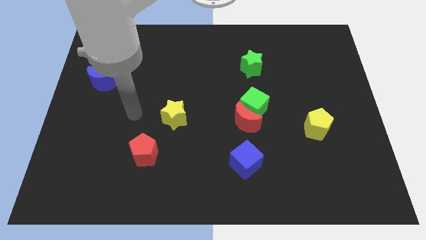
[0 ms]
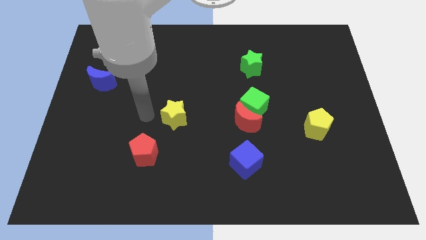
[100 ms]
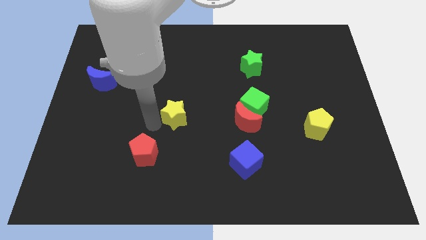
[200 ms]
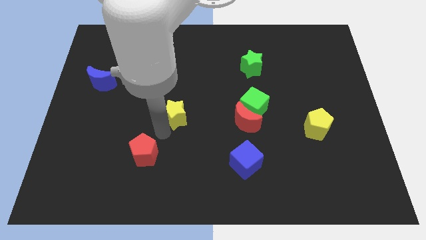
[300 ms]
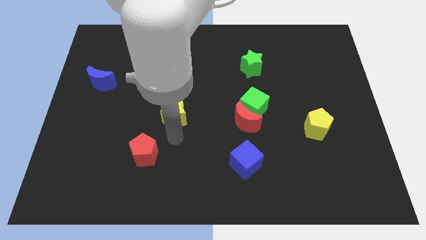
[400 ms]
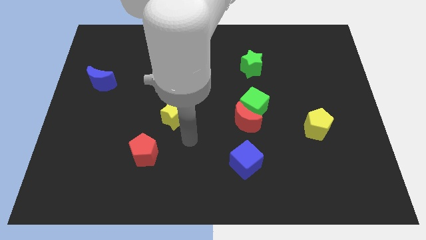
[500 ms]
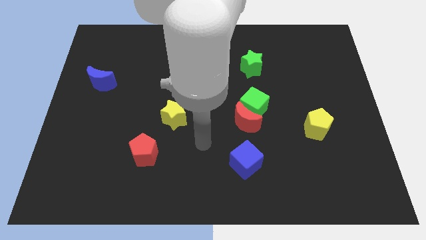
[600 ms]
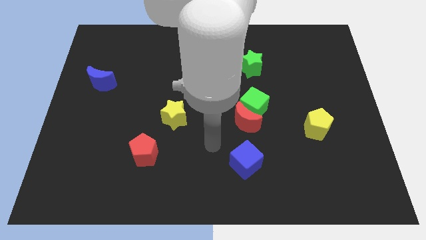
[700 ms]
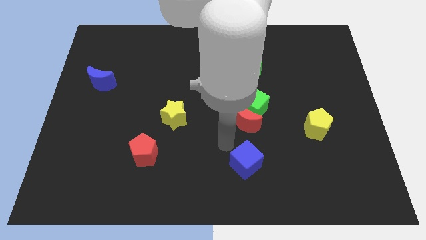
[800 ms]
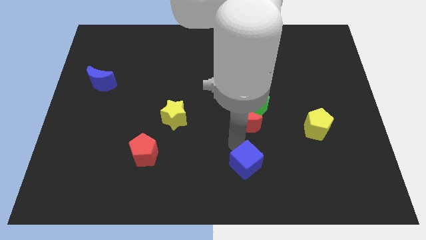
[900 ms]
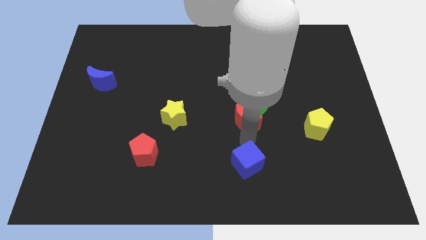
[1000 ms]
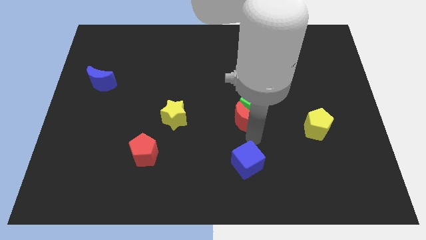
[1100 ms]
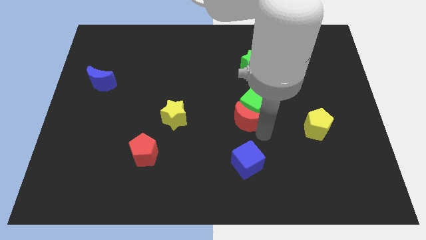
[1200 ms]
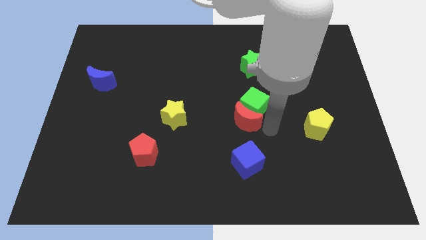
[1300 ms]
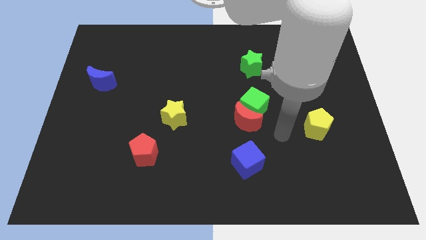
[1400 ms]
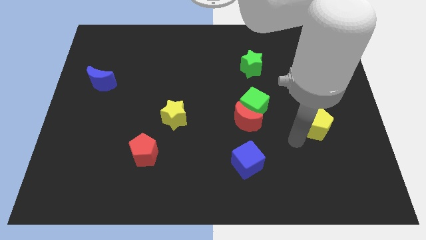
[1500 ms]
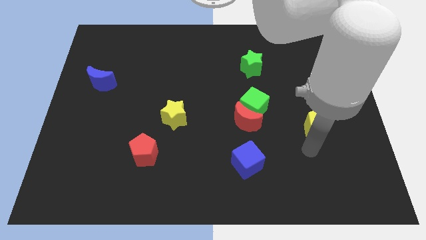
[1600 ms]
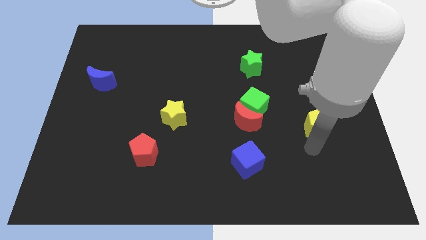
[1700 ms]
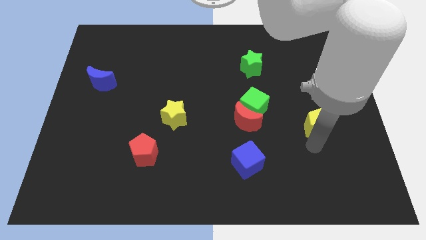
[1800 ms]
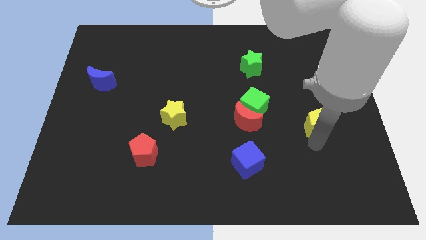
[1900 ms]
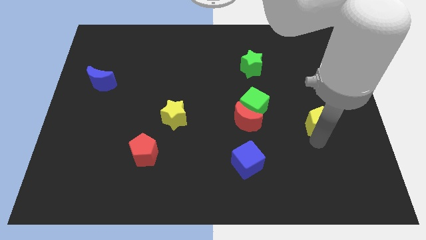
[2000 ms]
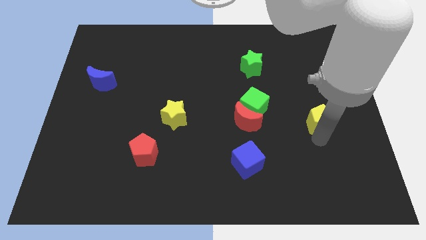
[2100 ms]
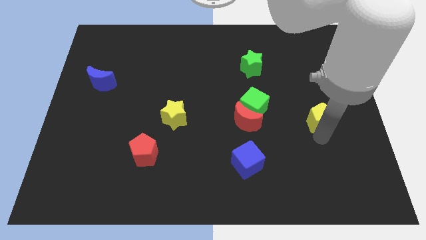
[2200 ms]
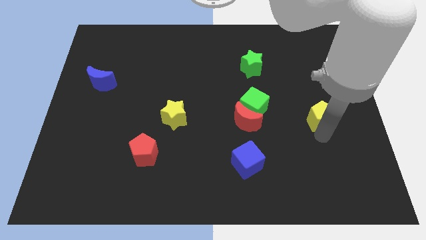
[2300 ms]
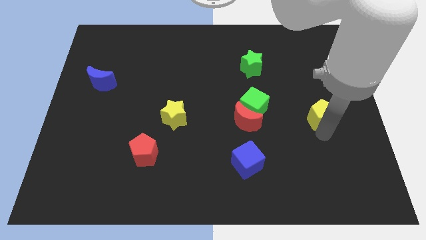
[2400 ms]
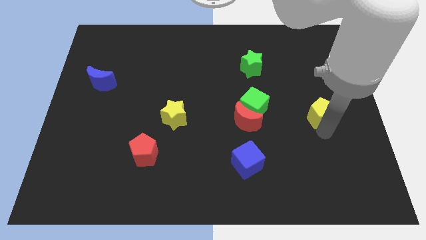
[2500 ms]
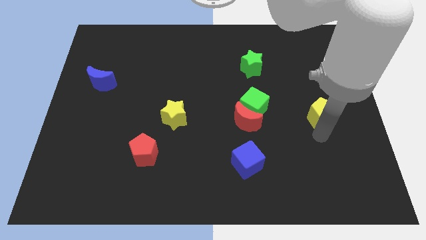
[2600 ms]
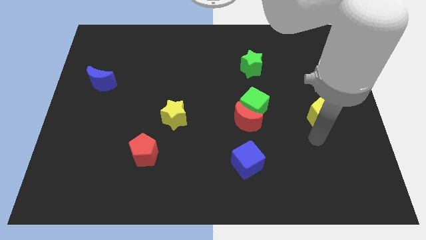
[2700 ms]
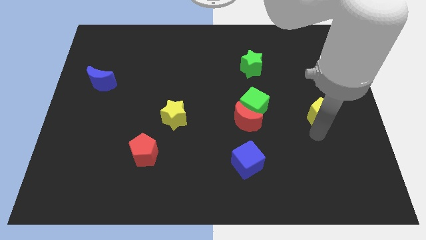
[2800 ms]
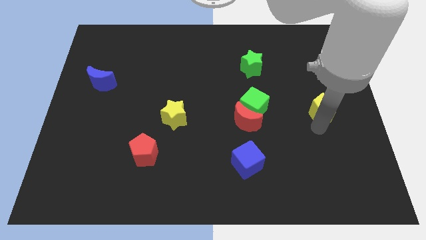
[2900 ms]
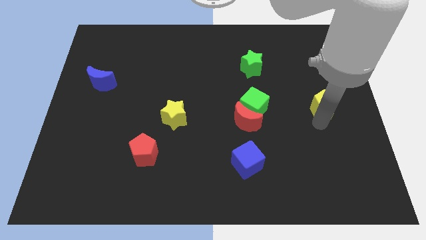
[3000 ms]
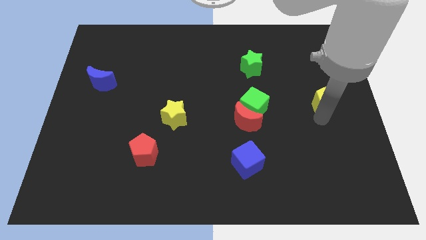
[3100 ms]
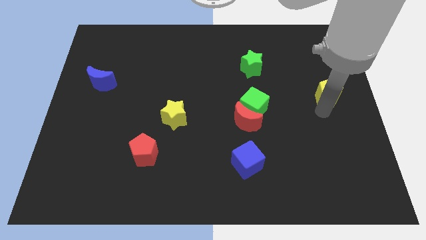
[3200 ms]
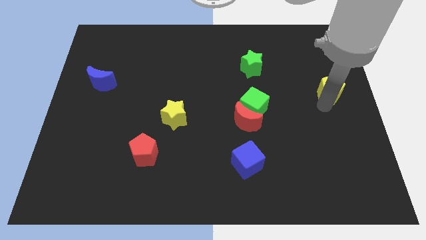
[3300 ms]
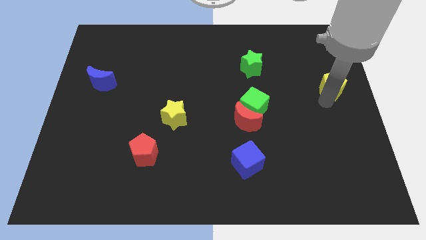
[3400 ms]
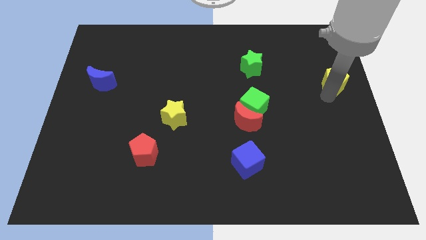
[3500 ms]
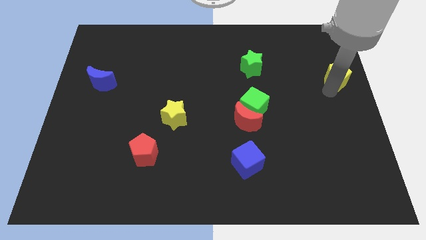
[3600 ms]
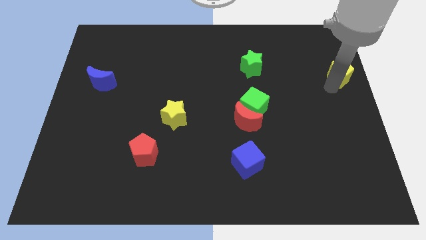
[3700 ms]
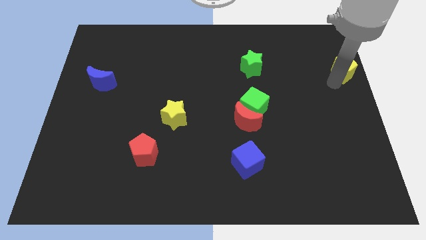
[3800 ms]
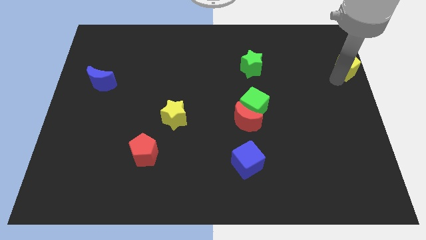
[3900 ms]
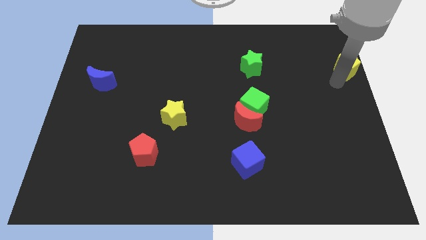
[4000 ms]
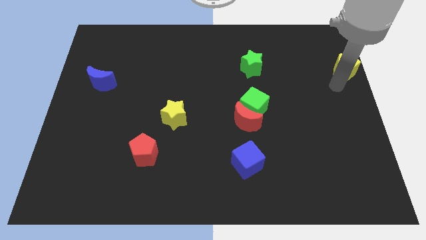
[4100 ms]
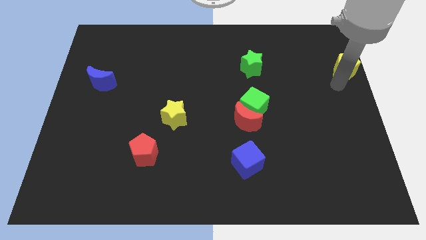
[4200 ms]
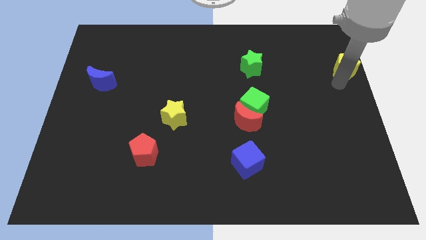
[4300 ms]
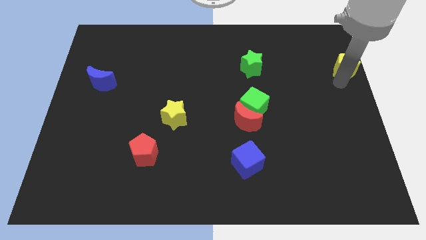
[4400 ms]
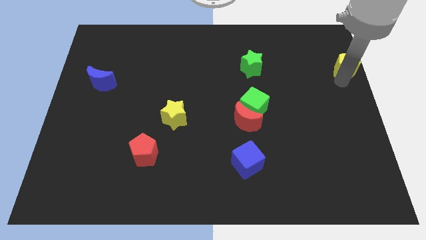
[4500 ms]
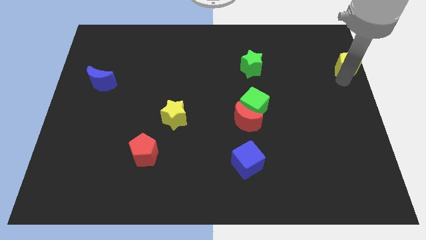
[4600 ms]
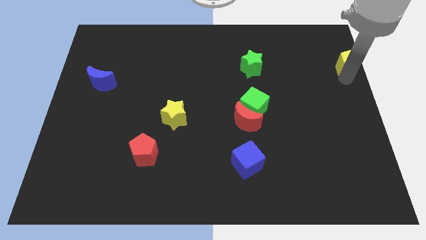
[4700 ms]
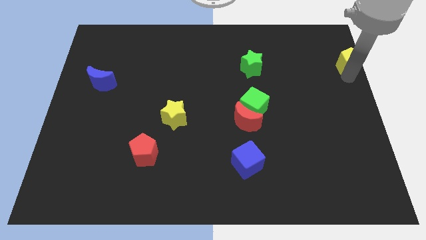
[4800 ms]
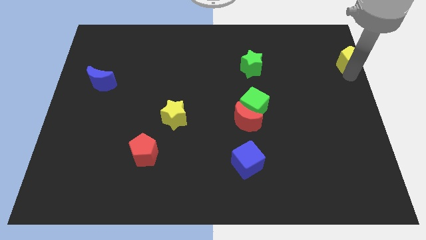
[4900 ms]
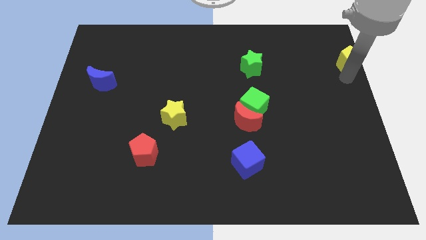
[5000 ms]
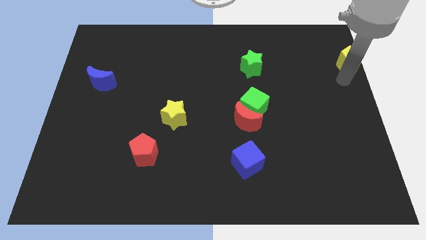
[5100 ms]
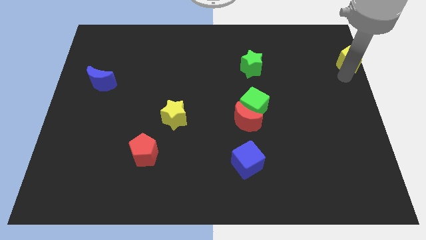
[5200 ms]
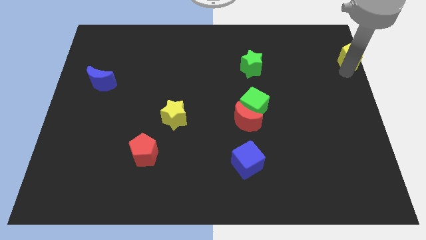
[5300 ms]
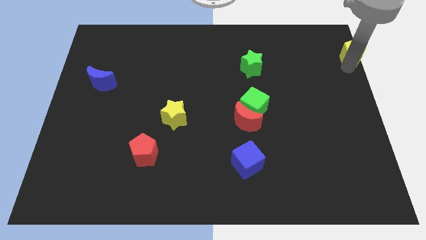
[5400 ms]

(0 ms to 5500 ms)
move the yellow pentagon to the top right

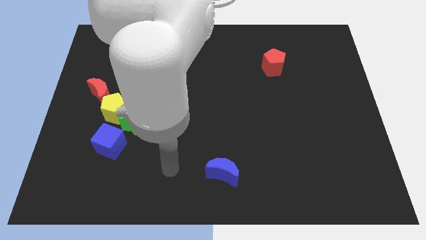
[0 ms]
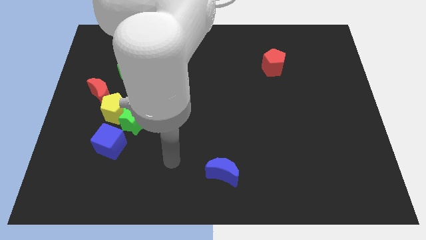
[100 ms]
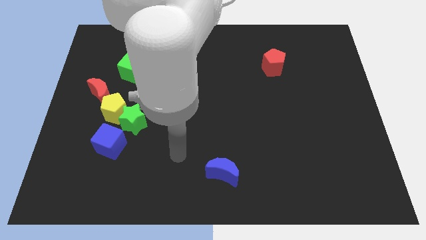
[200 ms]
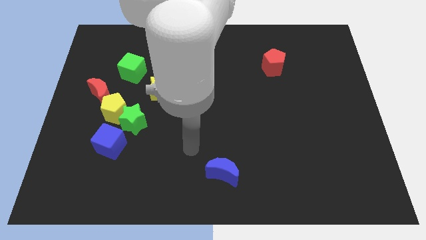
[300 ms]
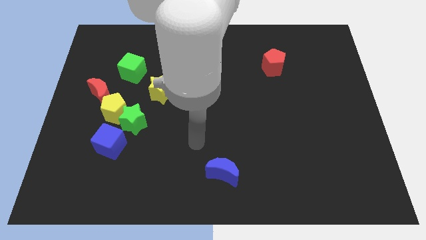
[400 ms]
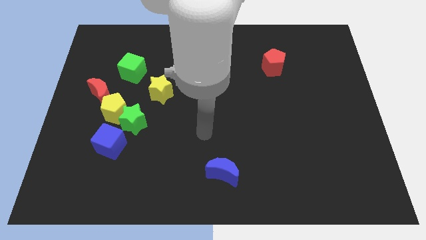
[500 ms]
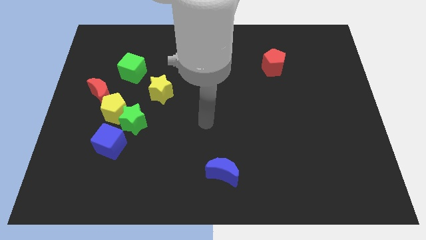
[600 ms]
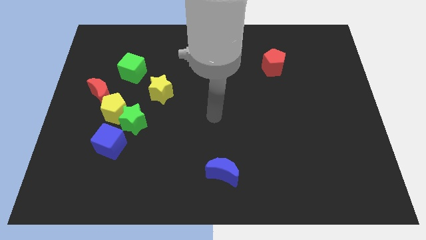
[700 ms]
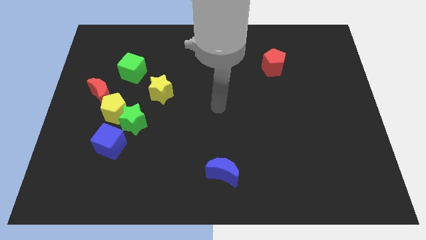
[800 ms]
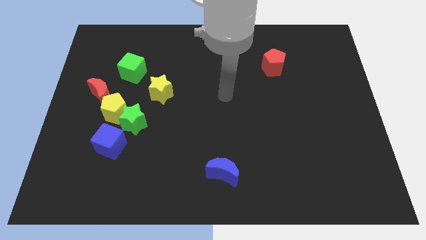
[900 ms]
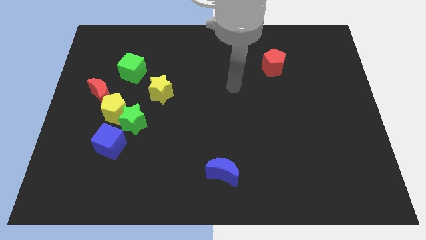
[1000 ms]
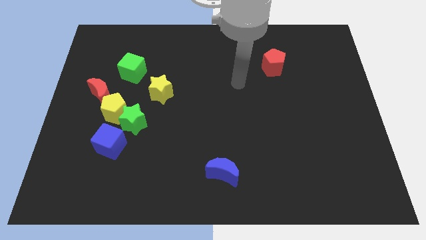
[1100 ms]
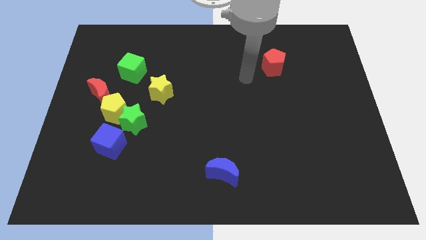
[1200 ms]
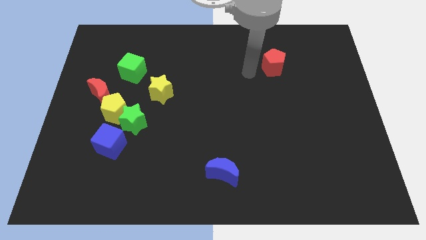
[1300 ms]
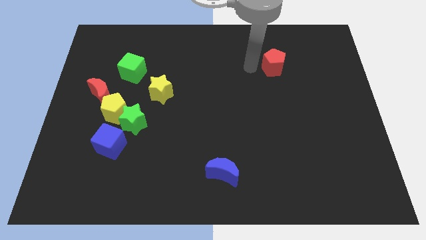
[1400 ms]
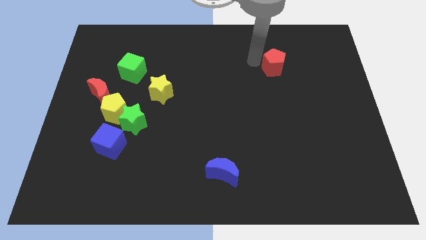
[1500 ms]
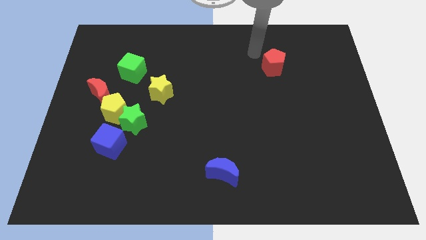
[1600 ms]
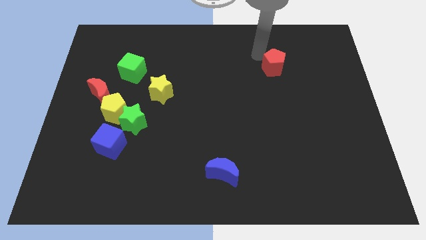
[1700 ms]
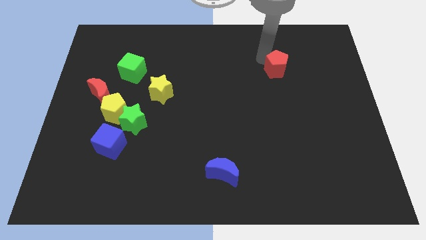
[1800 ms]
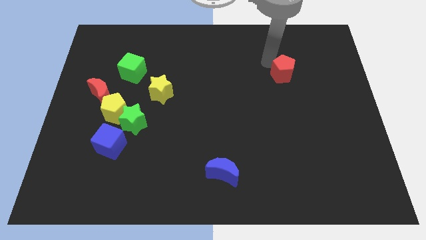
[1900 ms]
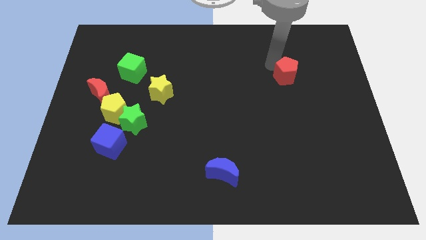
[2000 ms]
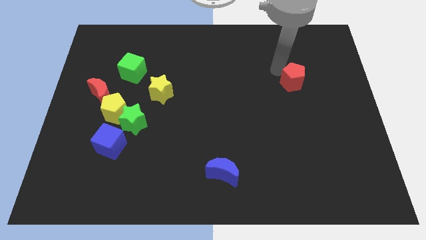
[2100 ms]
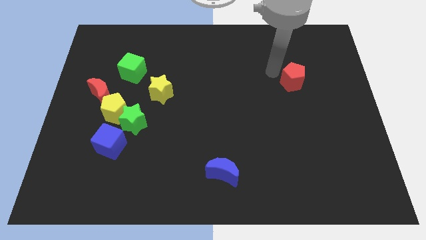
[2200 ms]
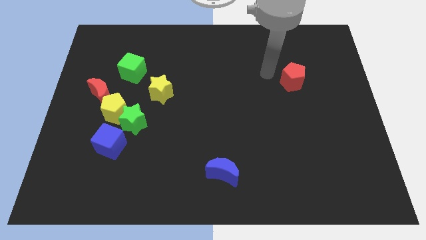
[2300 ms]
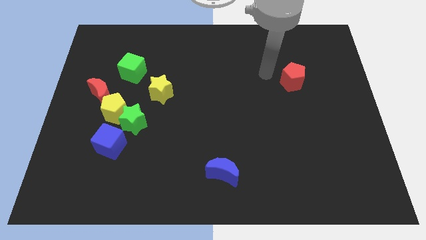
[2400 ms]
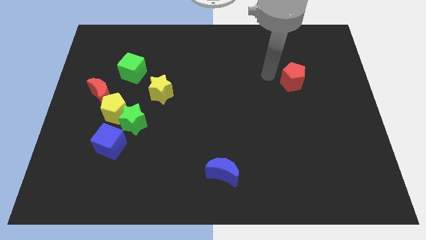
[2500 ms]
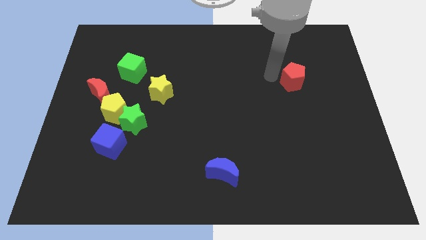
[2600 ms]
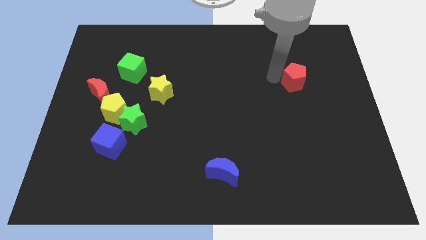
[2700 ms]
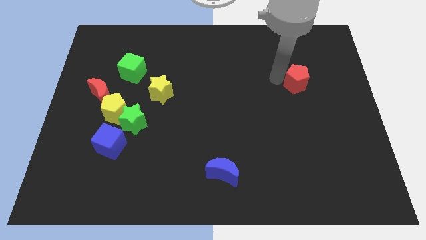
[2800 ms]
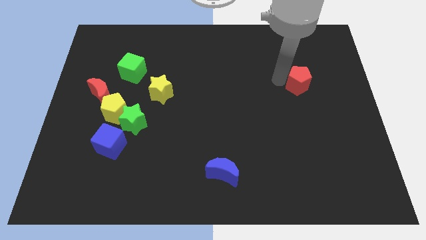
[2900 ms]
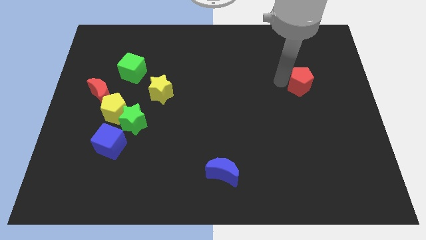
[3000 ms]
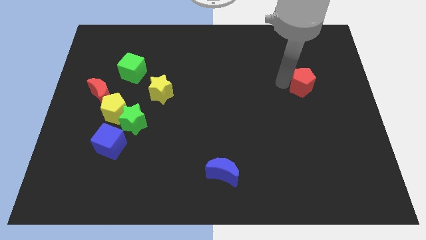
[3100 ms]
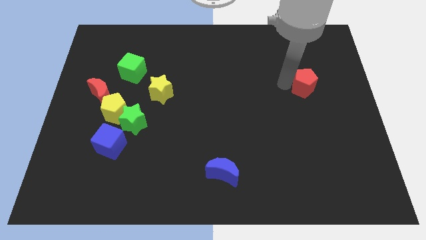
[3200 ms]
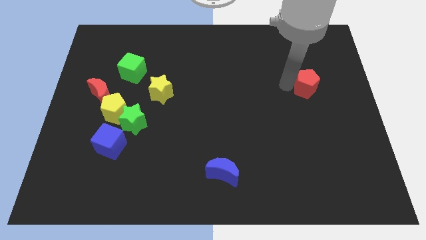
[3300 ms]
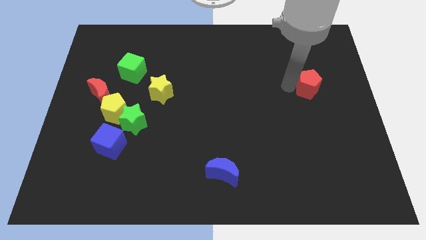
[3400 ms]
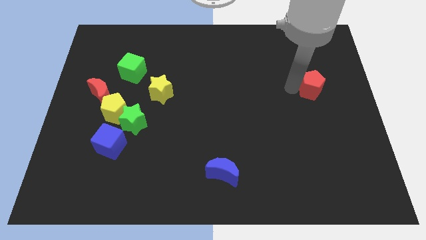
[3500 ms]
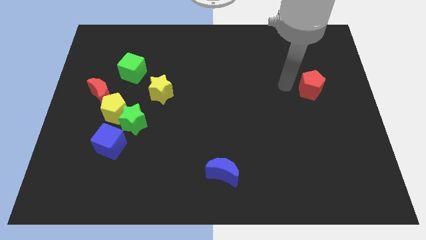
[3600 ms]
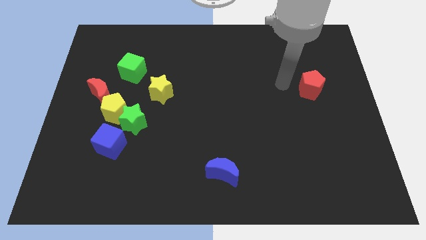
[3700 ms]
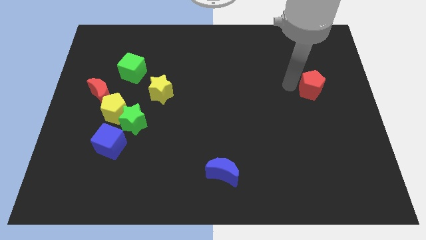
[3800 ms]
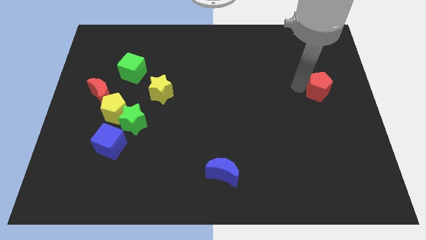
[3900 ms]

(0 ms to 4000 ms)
slide the red pentagon to the center right
